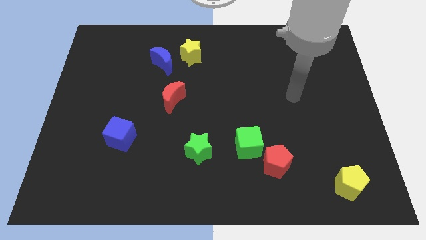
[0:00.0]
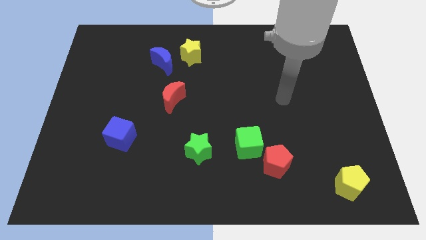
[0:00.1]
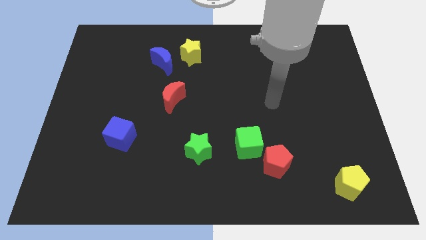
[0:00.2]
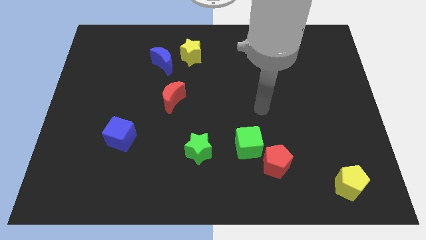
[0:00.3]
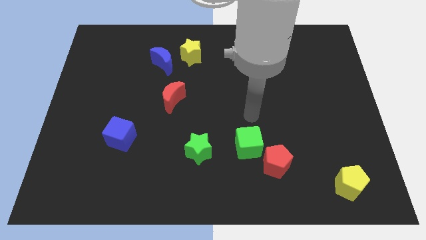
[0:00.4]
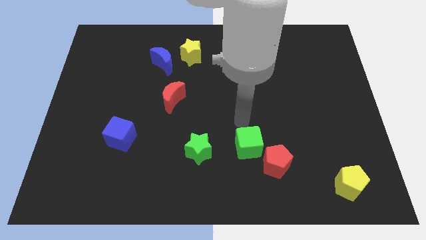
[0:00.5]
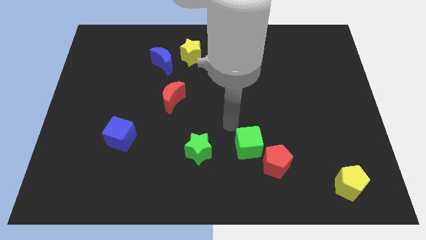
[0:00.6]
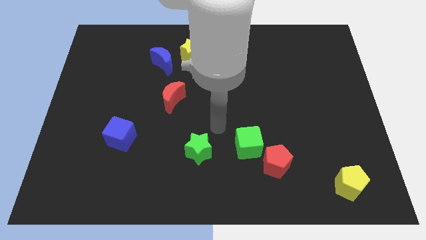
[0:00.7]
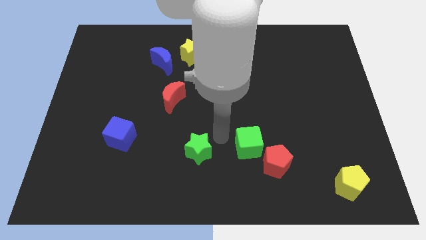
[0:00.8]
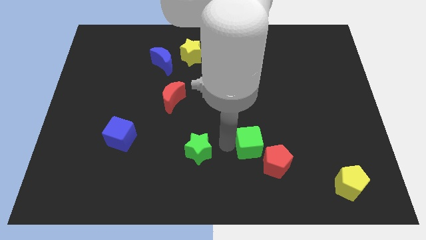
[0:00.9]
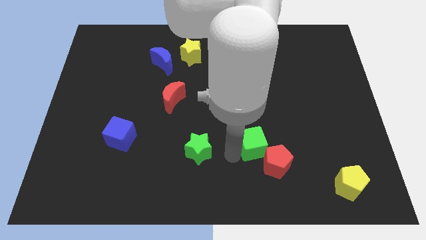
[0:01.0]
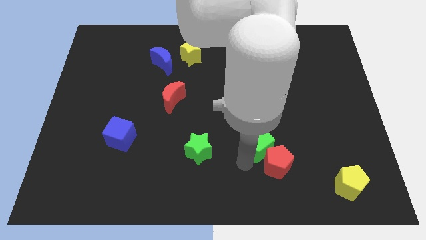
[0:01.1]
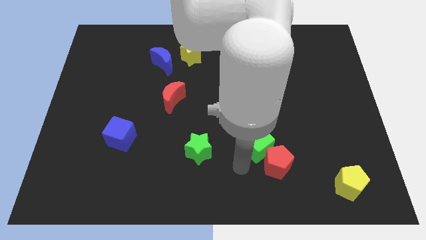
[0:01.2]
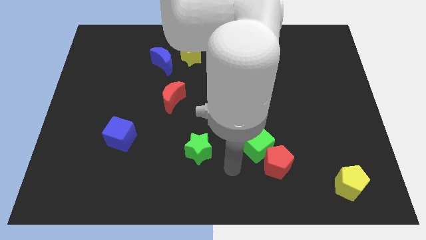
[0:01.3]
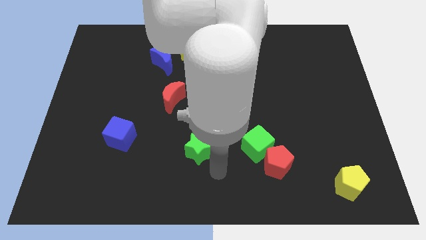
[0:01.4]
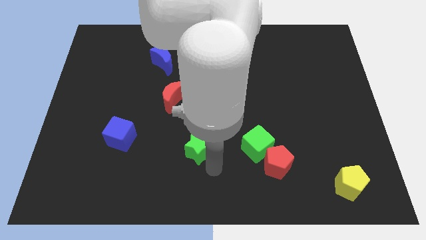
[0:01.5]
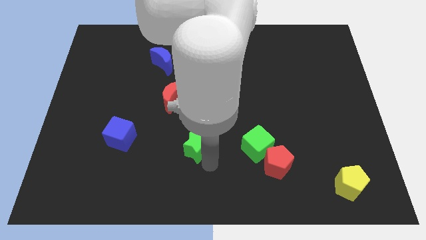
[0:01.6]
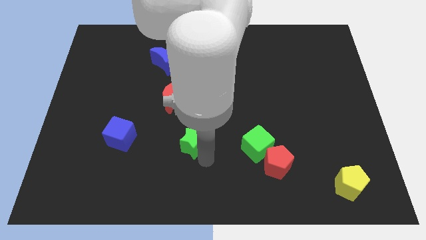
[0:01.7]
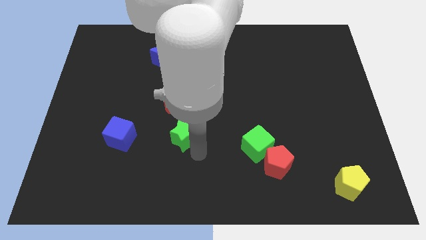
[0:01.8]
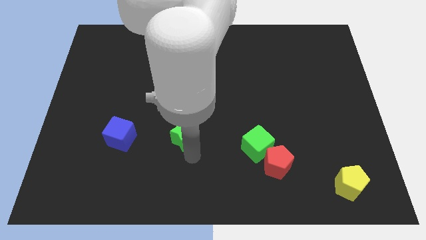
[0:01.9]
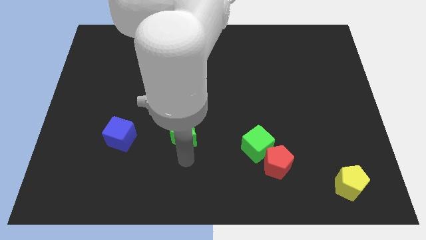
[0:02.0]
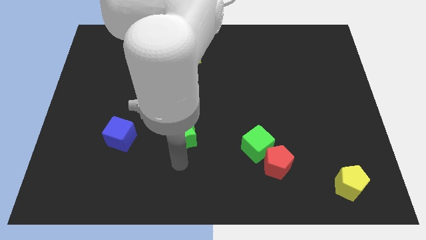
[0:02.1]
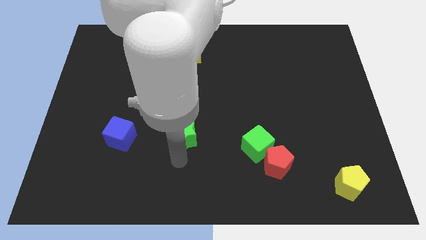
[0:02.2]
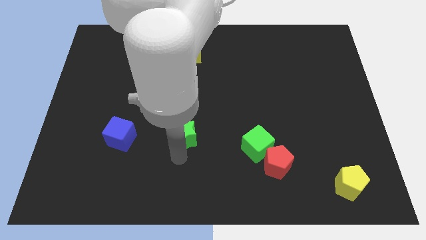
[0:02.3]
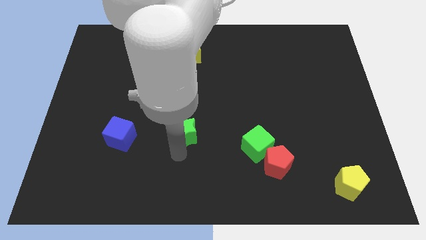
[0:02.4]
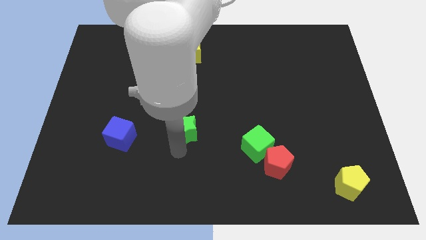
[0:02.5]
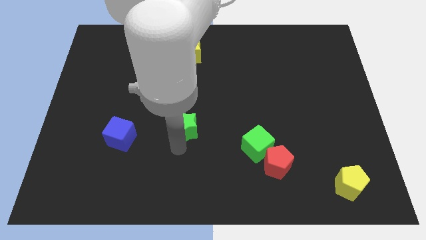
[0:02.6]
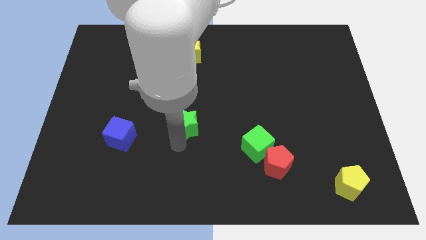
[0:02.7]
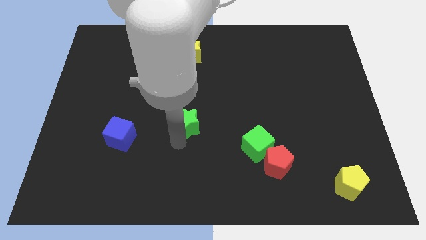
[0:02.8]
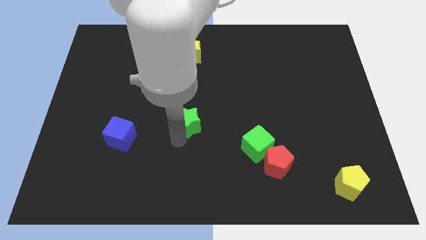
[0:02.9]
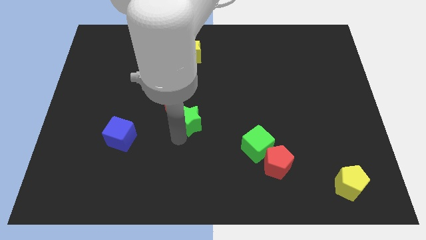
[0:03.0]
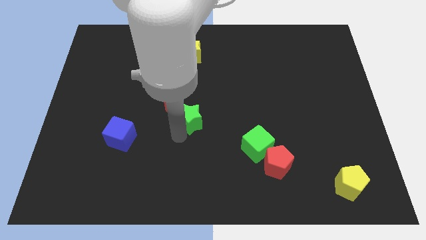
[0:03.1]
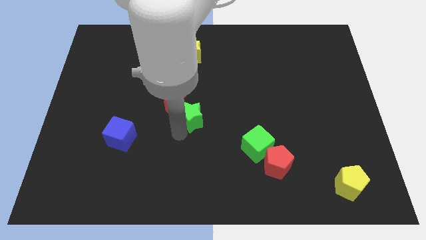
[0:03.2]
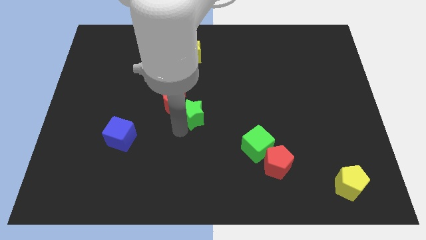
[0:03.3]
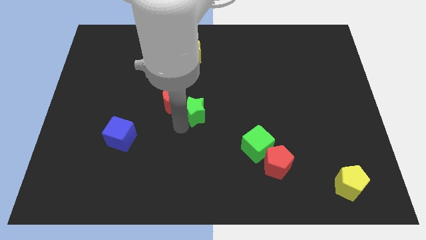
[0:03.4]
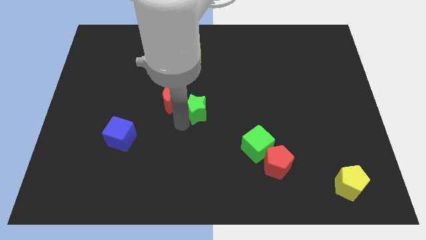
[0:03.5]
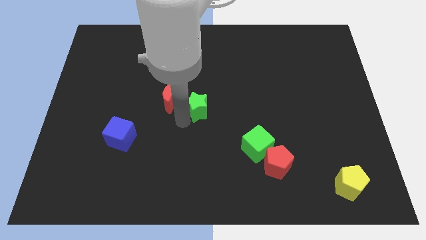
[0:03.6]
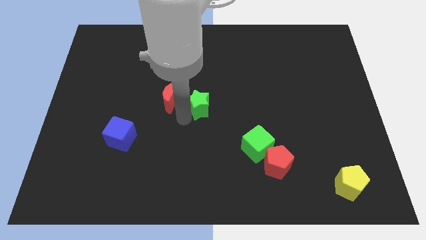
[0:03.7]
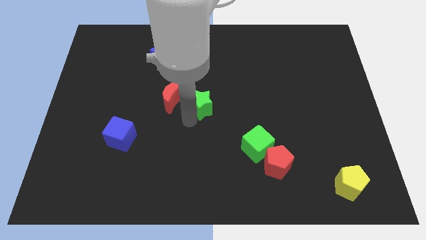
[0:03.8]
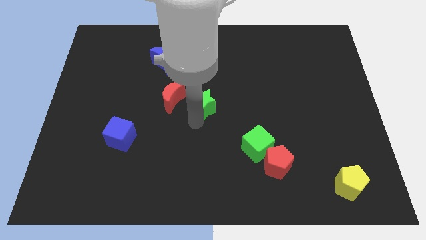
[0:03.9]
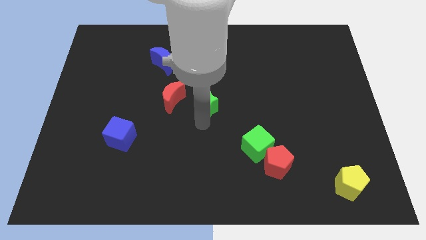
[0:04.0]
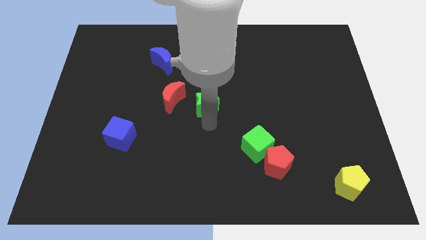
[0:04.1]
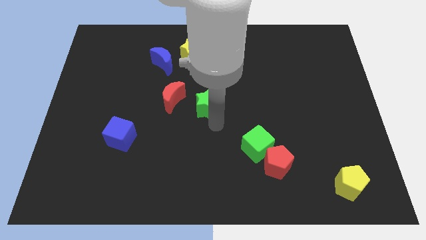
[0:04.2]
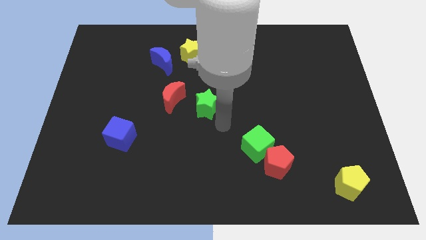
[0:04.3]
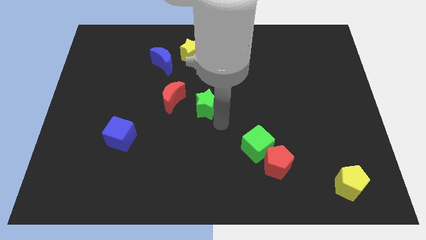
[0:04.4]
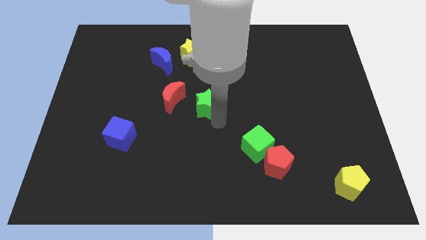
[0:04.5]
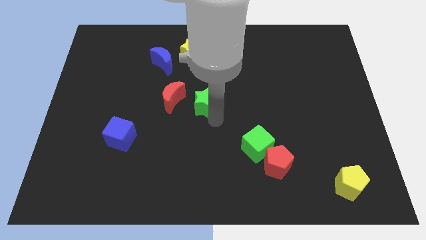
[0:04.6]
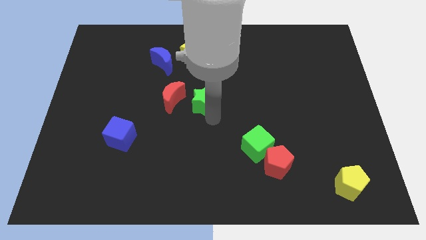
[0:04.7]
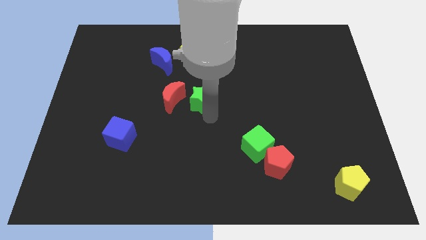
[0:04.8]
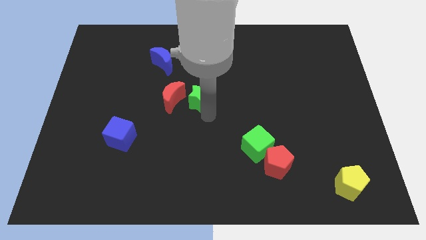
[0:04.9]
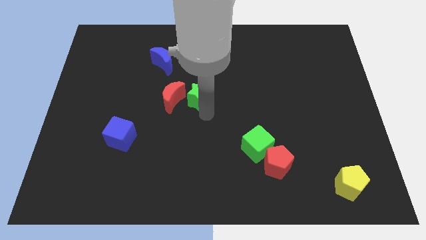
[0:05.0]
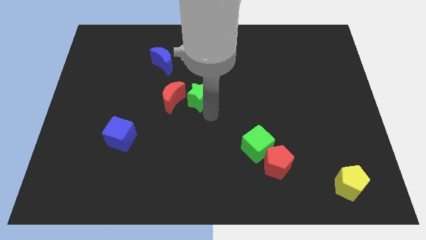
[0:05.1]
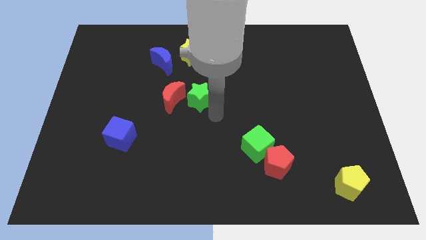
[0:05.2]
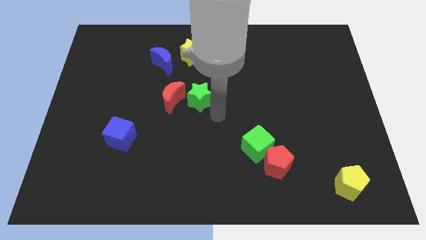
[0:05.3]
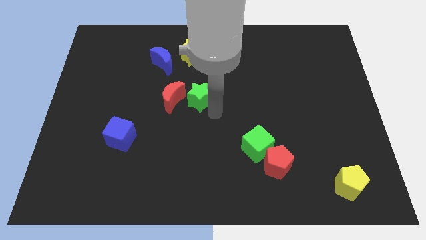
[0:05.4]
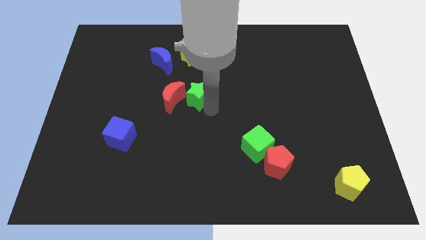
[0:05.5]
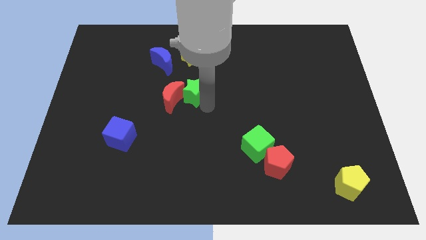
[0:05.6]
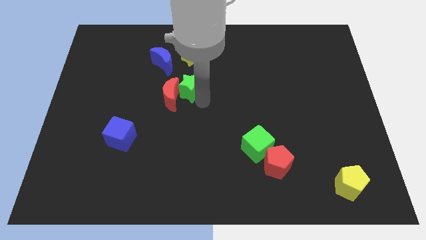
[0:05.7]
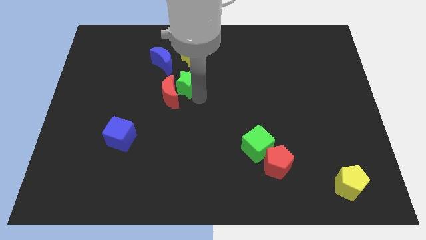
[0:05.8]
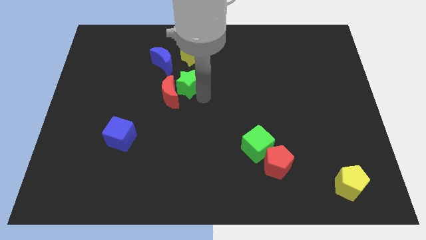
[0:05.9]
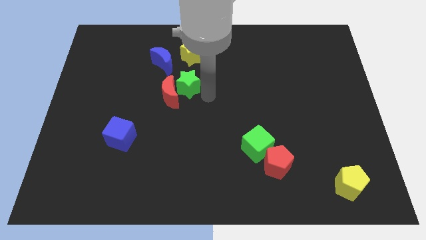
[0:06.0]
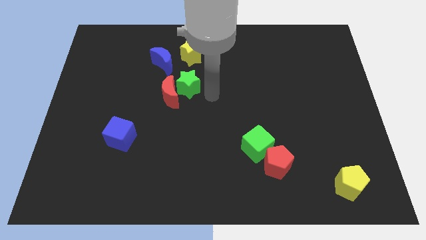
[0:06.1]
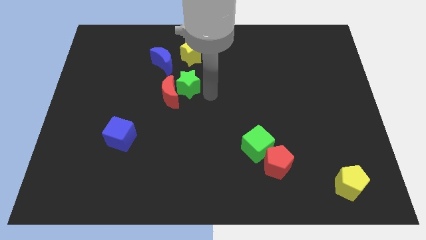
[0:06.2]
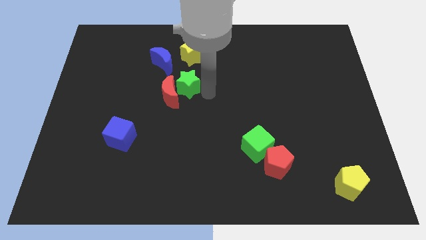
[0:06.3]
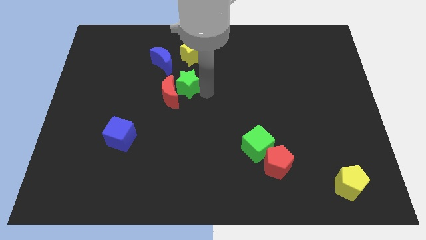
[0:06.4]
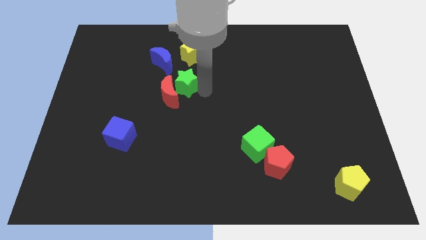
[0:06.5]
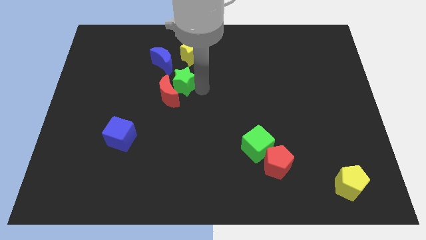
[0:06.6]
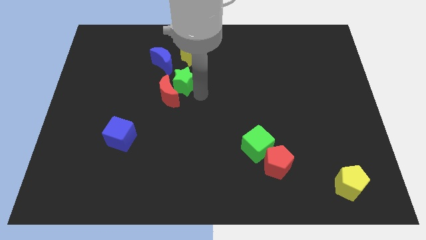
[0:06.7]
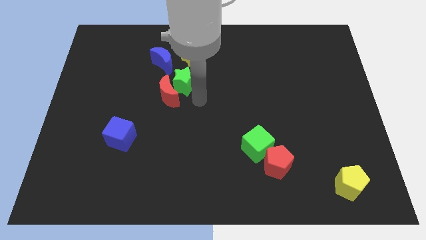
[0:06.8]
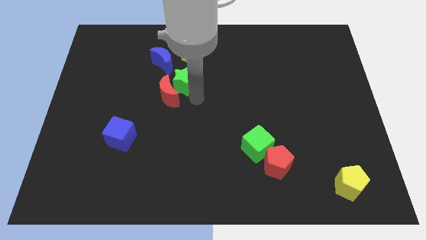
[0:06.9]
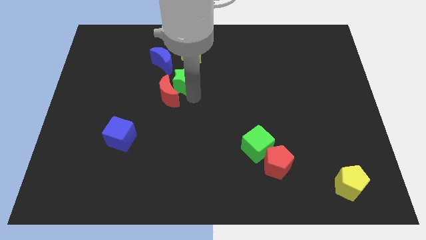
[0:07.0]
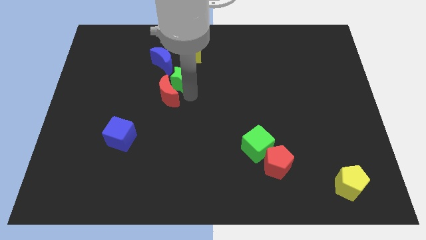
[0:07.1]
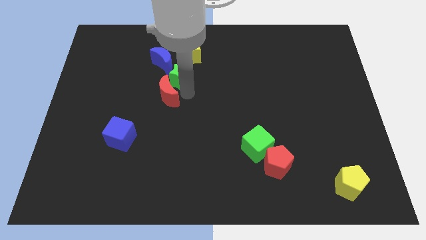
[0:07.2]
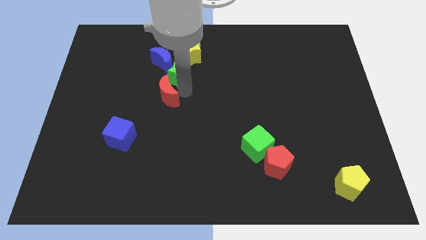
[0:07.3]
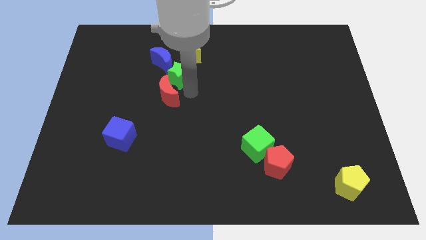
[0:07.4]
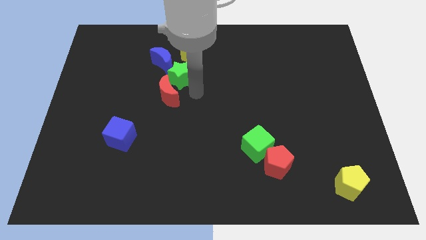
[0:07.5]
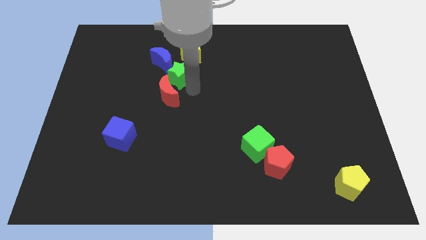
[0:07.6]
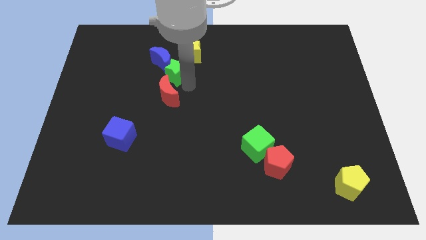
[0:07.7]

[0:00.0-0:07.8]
slide the green star towards the blue moon
